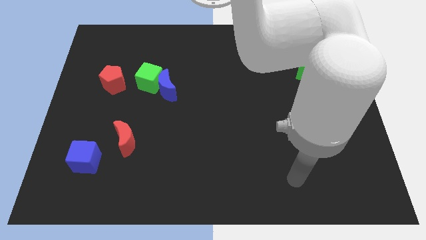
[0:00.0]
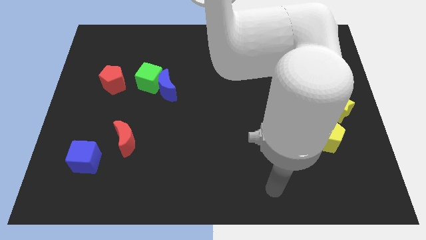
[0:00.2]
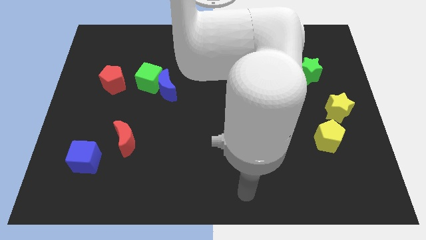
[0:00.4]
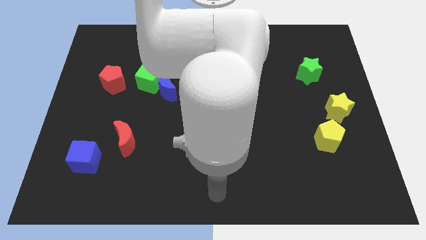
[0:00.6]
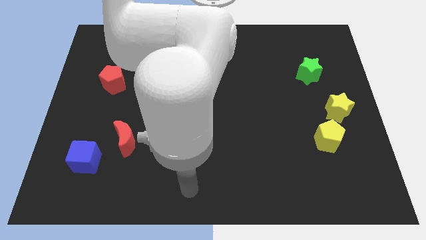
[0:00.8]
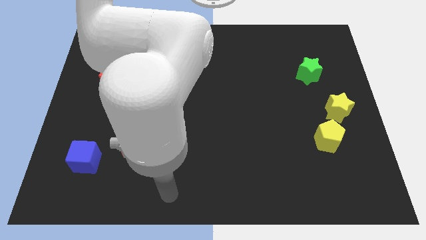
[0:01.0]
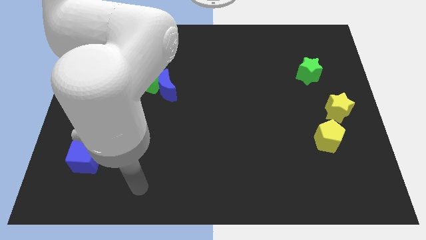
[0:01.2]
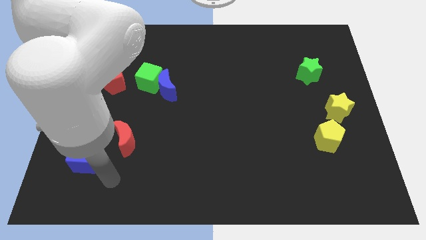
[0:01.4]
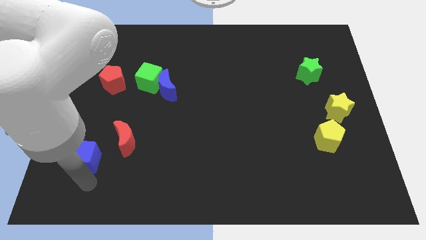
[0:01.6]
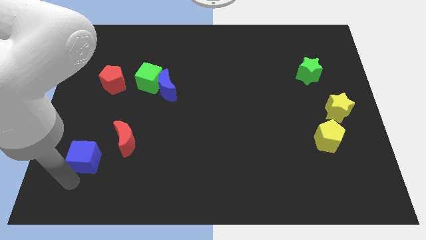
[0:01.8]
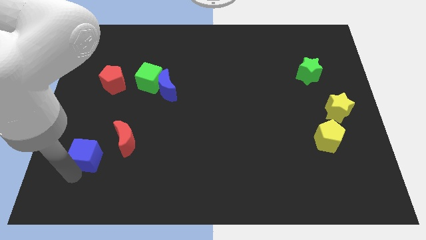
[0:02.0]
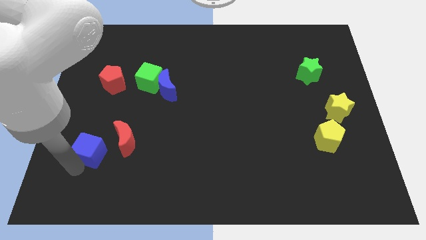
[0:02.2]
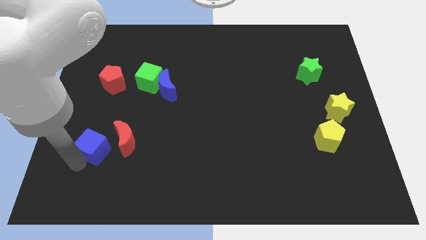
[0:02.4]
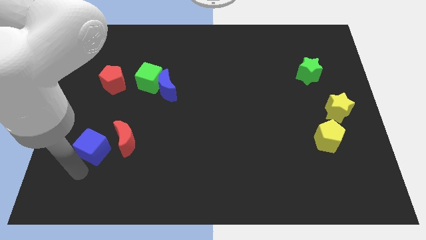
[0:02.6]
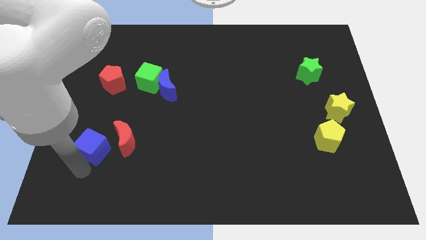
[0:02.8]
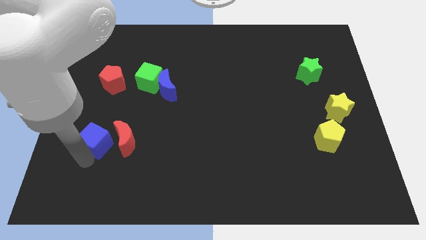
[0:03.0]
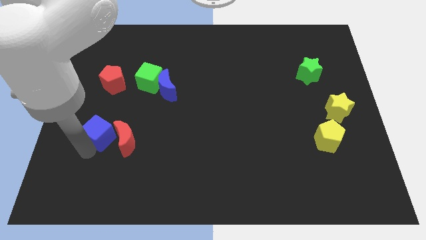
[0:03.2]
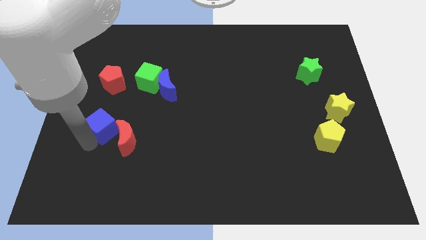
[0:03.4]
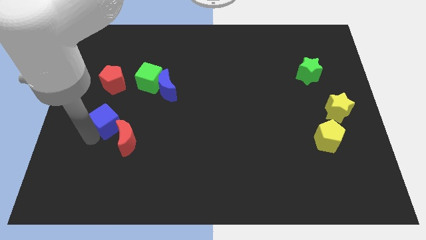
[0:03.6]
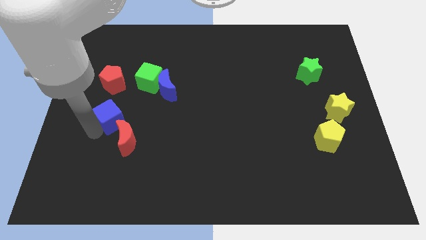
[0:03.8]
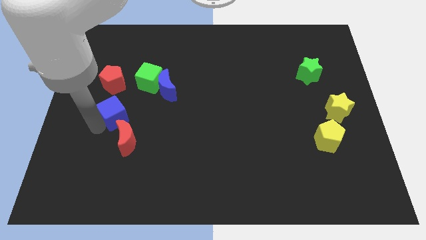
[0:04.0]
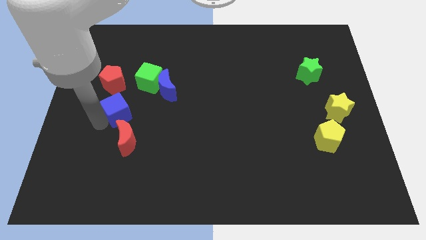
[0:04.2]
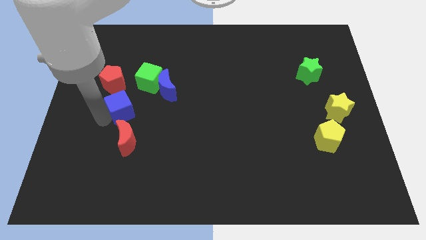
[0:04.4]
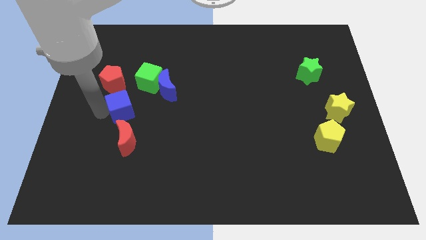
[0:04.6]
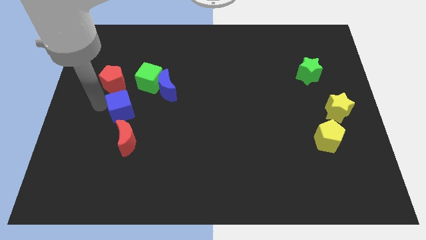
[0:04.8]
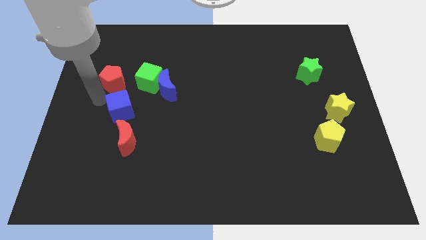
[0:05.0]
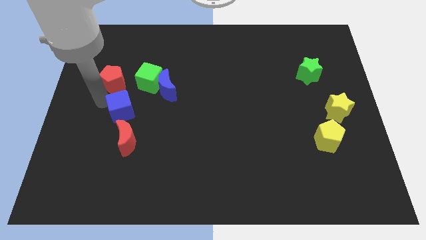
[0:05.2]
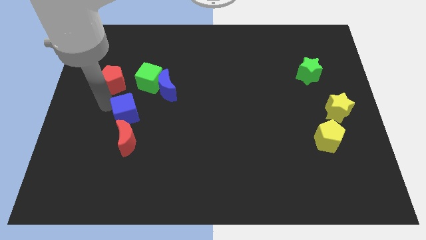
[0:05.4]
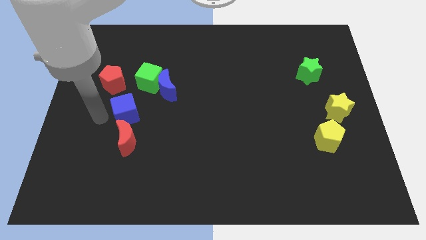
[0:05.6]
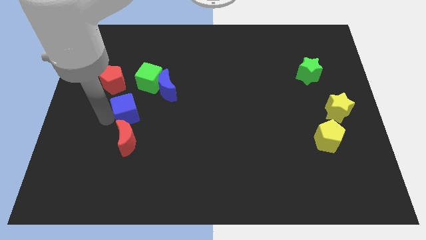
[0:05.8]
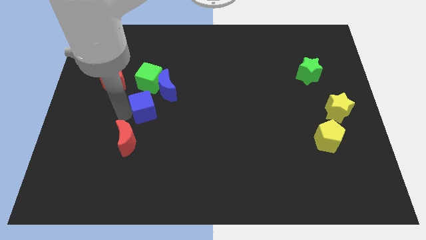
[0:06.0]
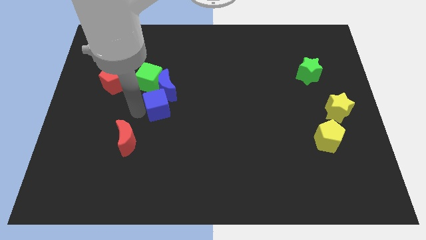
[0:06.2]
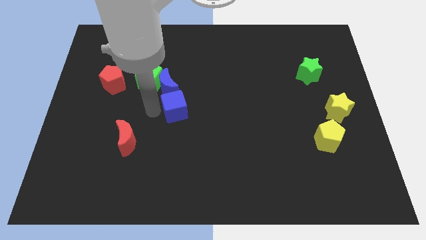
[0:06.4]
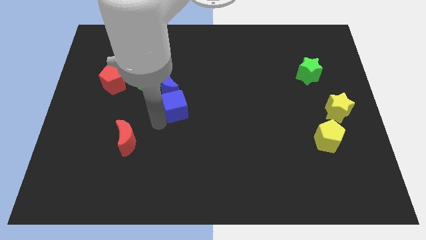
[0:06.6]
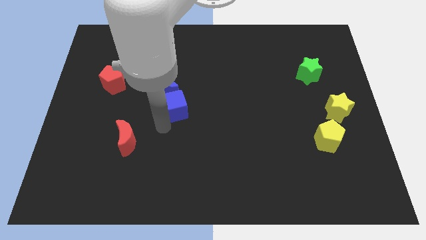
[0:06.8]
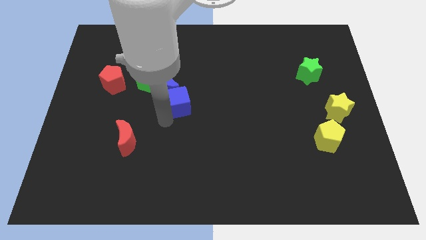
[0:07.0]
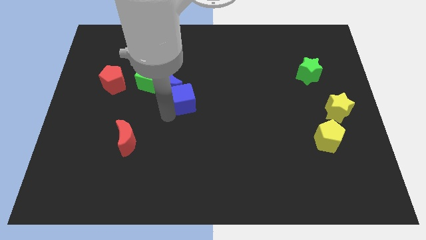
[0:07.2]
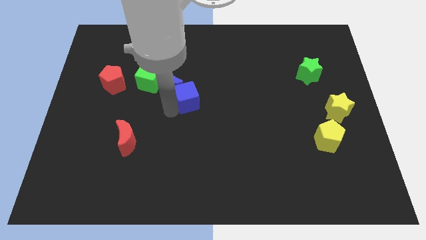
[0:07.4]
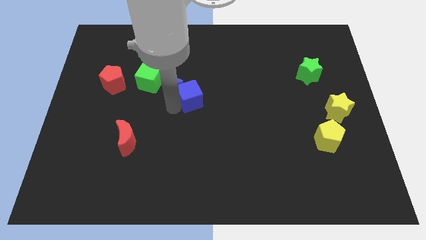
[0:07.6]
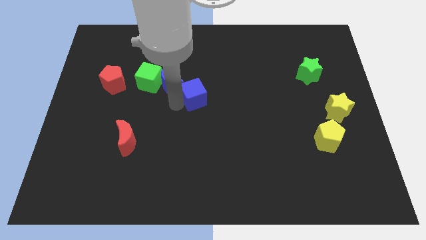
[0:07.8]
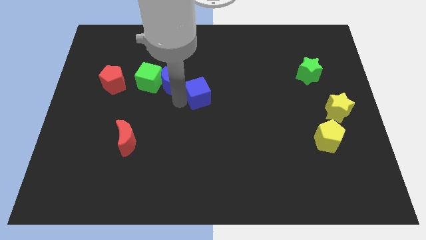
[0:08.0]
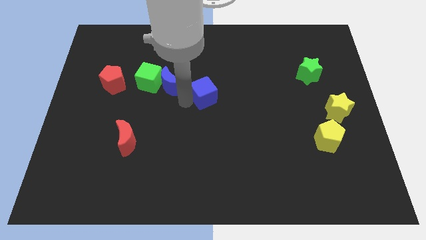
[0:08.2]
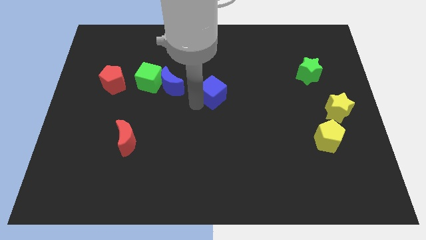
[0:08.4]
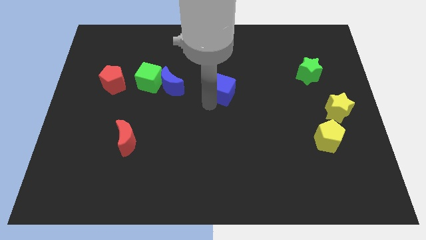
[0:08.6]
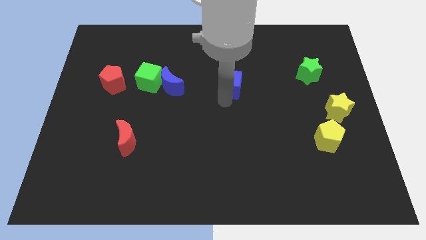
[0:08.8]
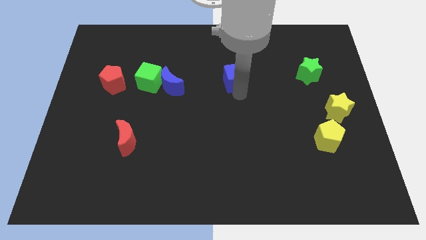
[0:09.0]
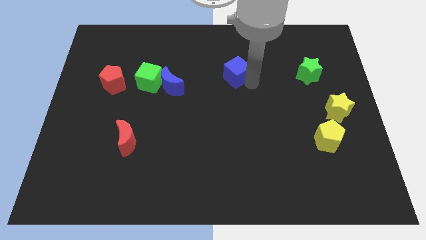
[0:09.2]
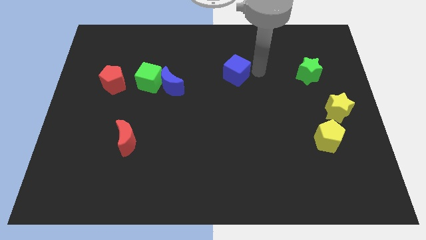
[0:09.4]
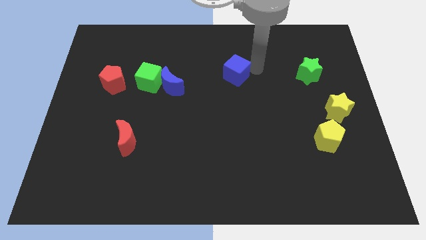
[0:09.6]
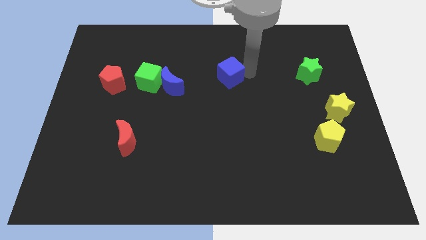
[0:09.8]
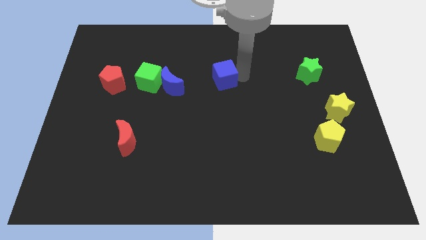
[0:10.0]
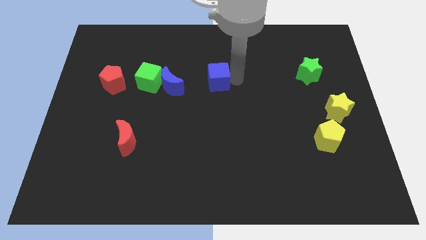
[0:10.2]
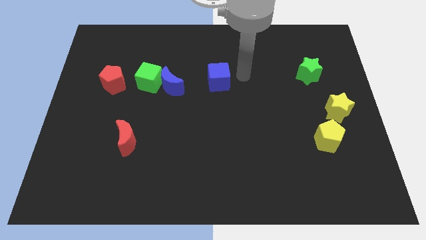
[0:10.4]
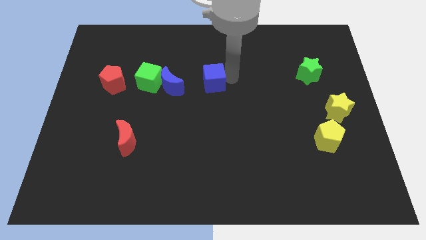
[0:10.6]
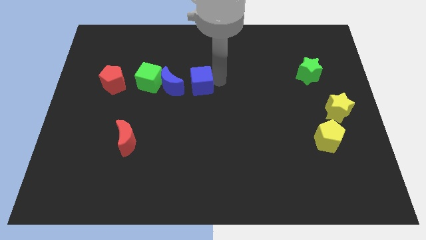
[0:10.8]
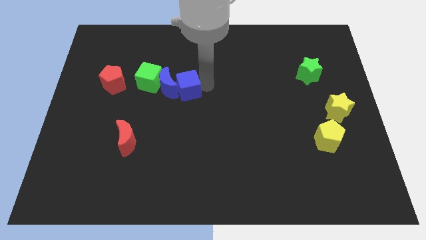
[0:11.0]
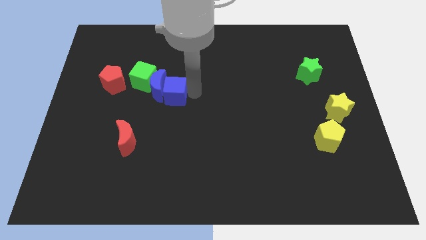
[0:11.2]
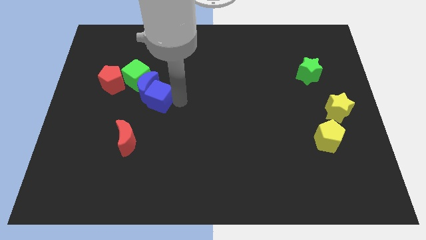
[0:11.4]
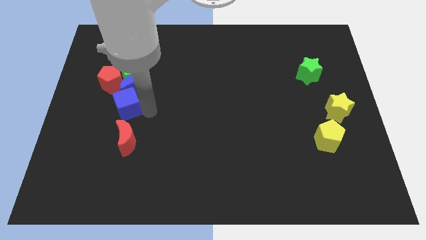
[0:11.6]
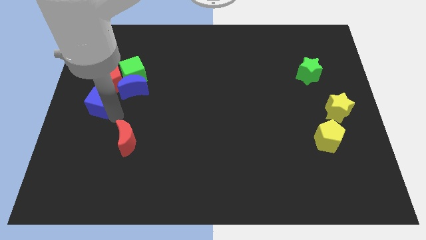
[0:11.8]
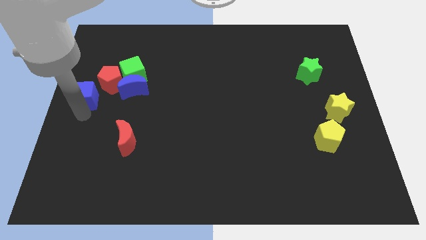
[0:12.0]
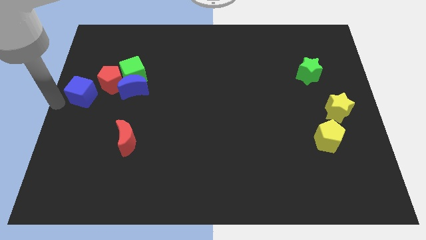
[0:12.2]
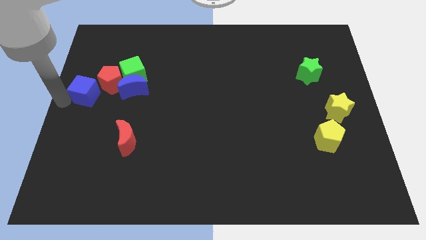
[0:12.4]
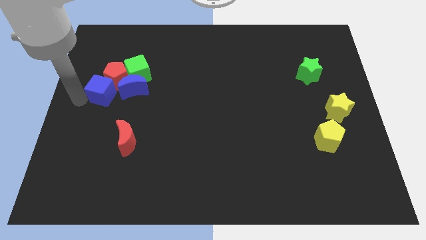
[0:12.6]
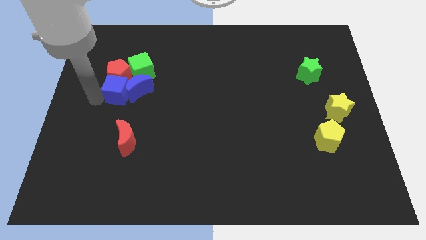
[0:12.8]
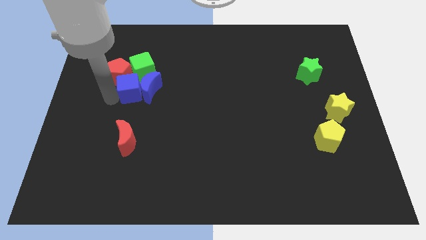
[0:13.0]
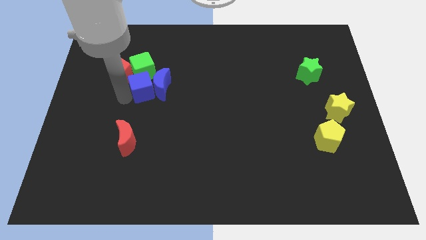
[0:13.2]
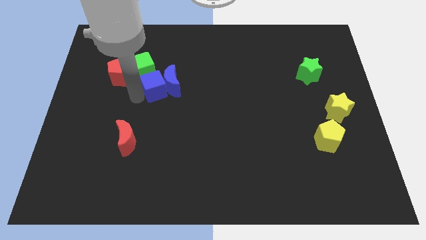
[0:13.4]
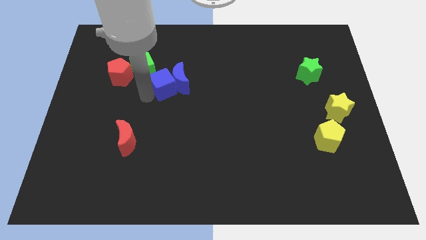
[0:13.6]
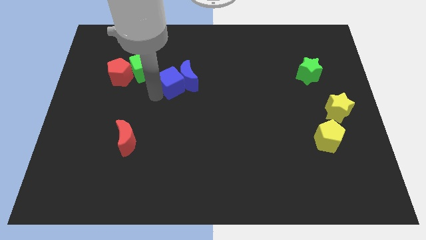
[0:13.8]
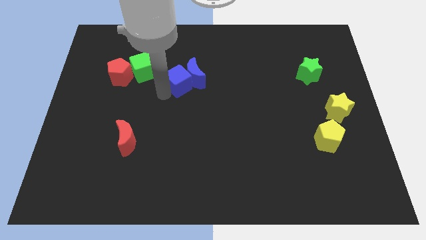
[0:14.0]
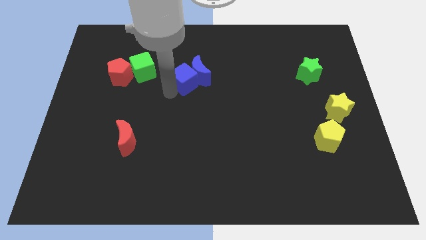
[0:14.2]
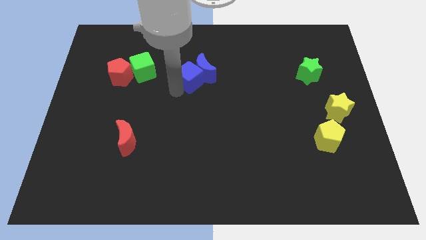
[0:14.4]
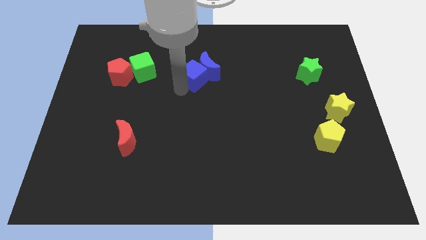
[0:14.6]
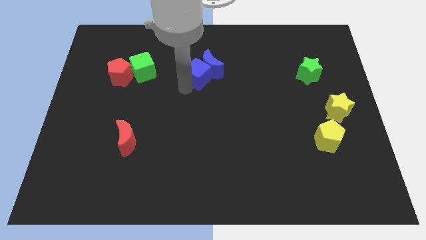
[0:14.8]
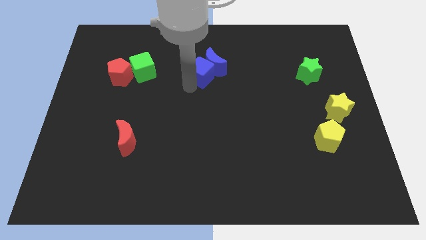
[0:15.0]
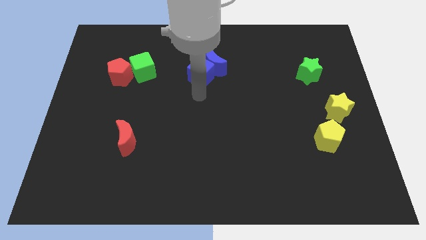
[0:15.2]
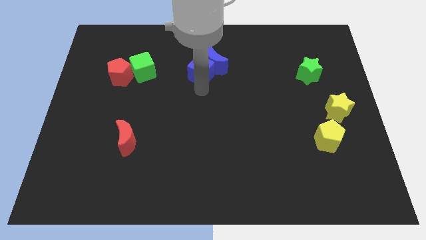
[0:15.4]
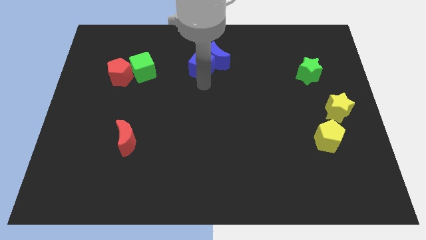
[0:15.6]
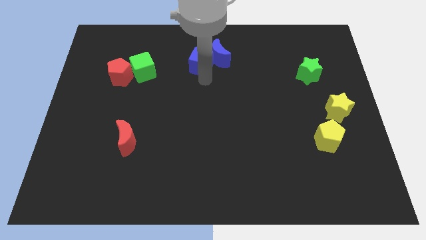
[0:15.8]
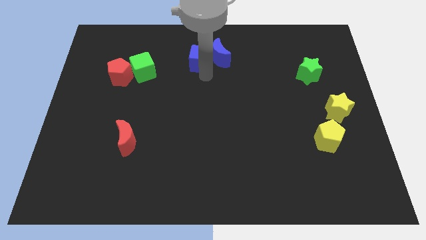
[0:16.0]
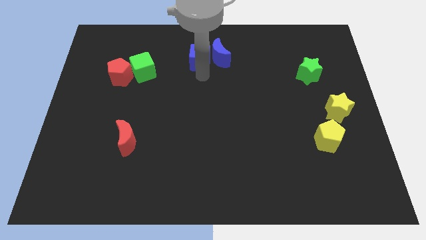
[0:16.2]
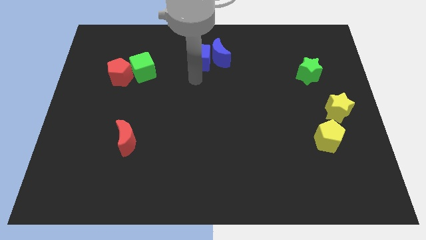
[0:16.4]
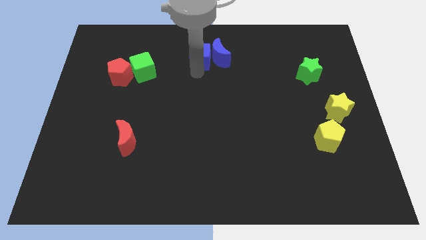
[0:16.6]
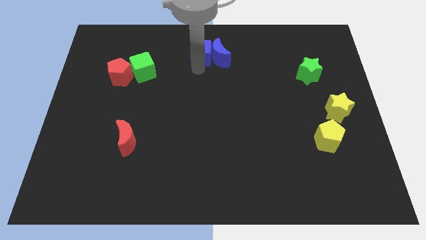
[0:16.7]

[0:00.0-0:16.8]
move the blue cube to the top
